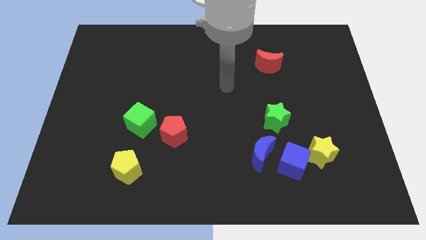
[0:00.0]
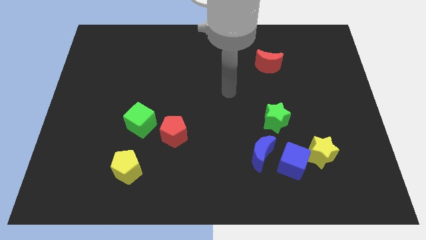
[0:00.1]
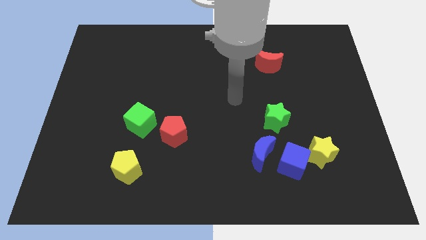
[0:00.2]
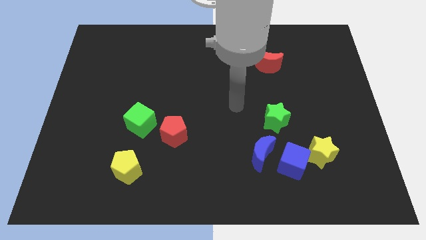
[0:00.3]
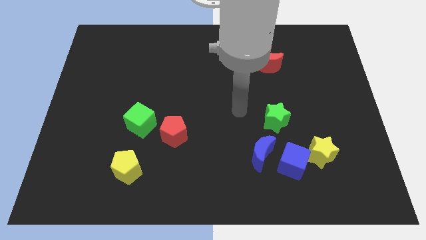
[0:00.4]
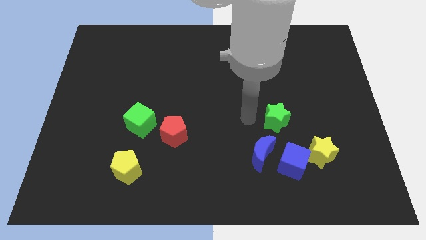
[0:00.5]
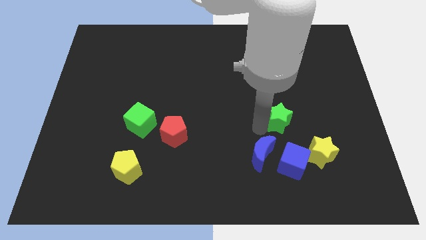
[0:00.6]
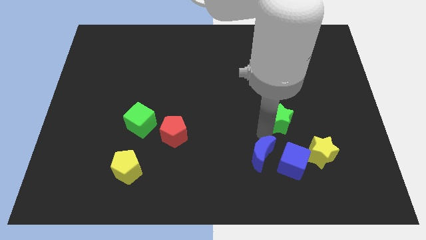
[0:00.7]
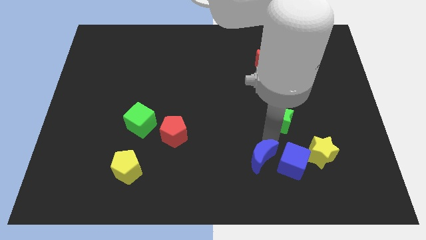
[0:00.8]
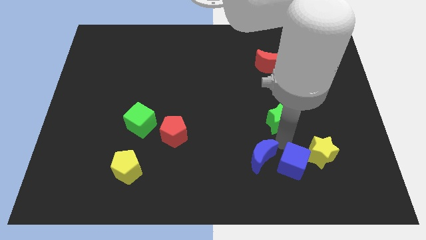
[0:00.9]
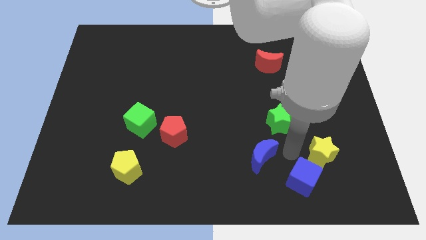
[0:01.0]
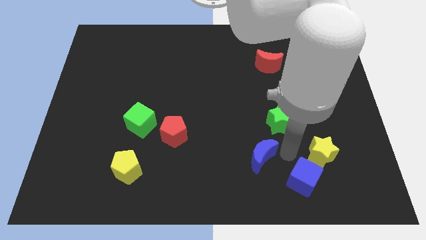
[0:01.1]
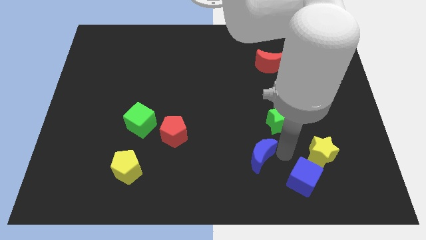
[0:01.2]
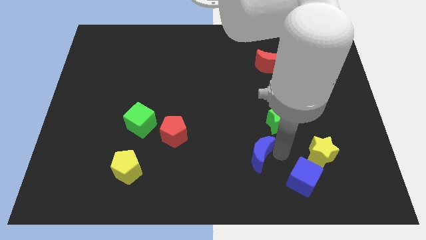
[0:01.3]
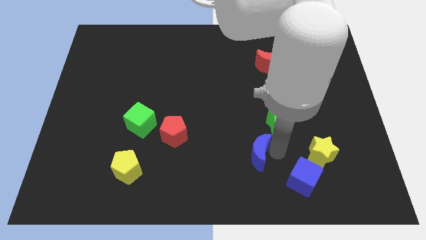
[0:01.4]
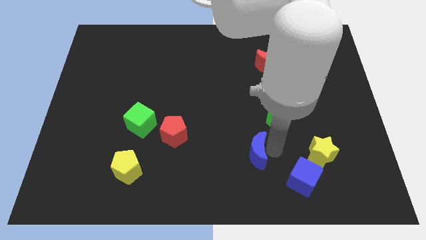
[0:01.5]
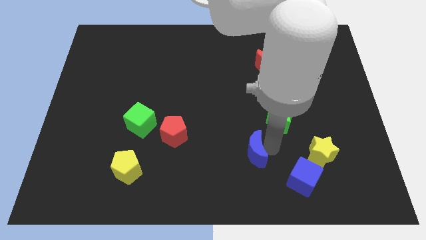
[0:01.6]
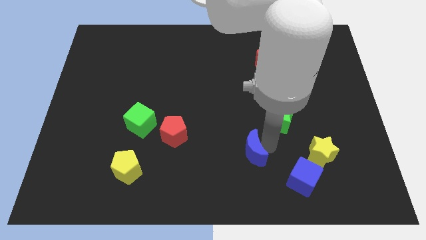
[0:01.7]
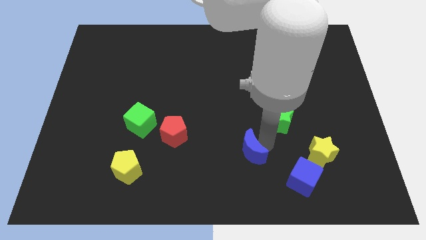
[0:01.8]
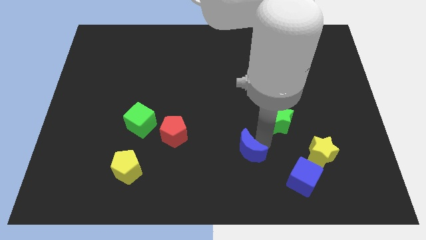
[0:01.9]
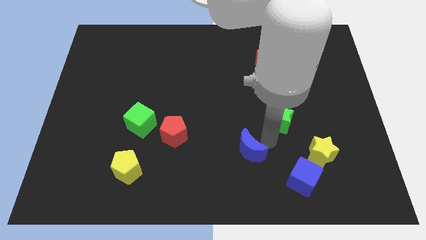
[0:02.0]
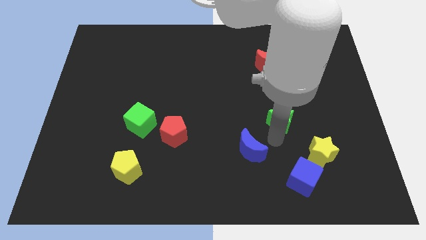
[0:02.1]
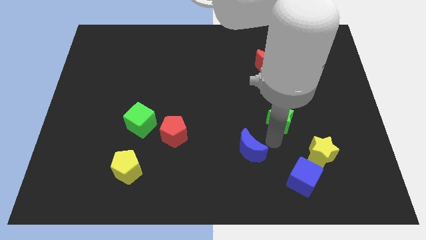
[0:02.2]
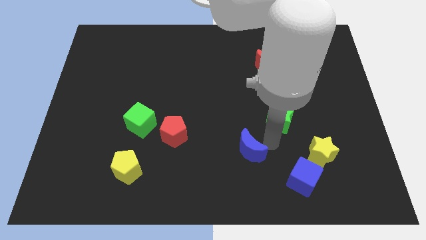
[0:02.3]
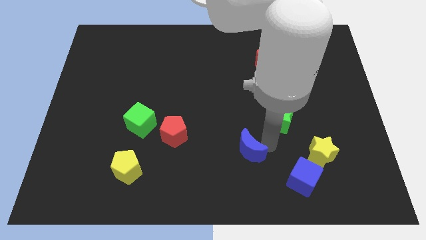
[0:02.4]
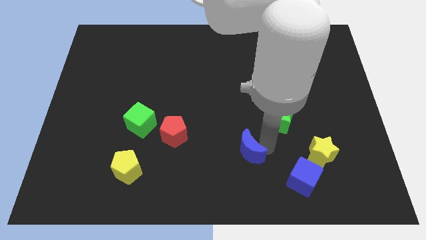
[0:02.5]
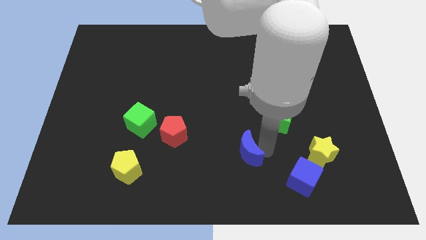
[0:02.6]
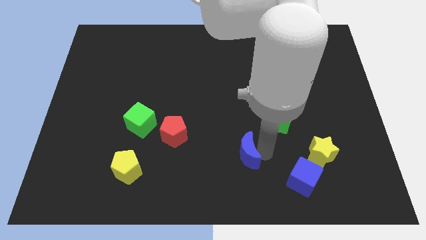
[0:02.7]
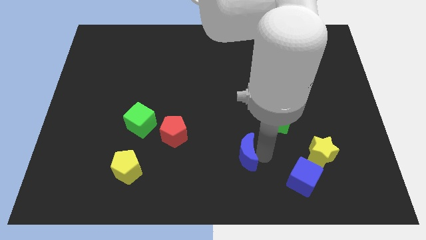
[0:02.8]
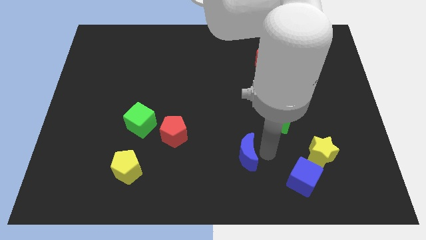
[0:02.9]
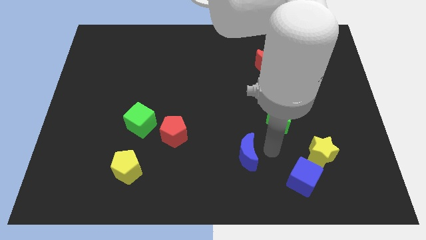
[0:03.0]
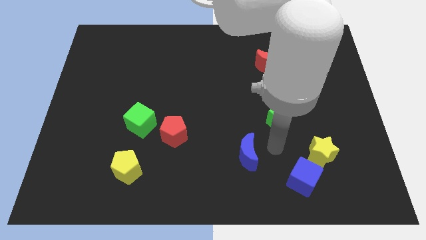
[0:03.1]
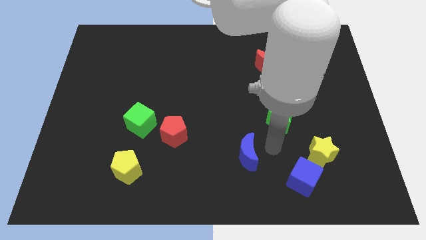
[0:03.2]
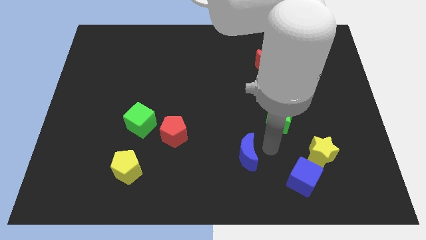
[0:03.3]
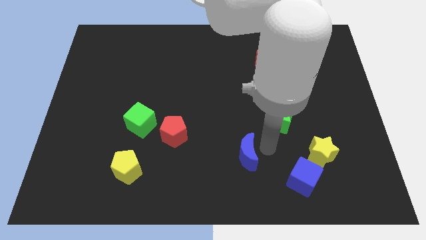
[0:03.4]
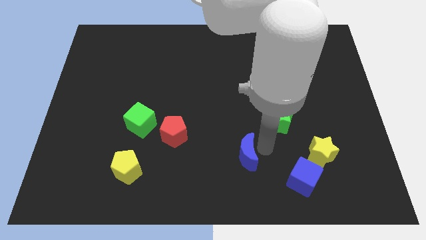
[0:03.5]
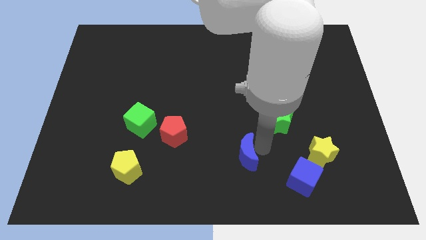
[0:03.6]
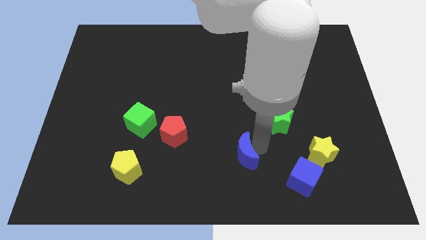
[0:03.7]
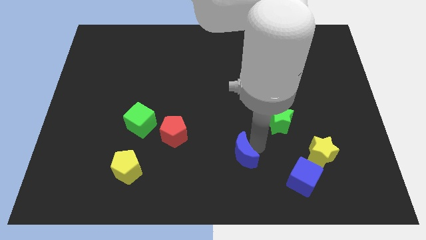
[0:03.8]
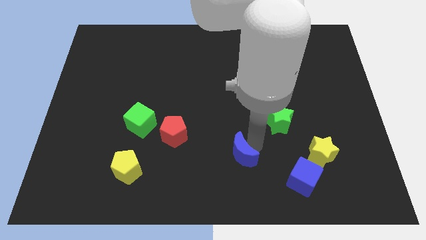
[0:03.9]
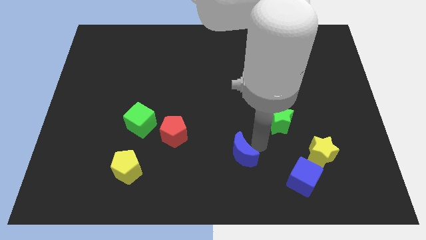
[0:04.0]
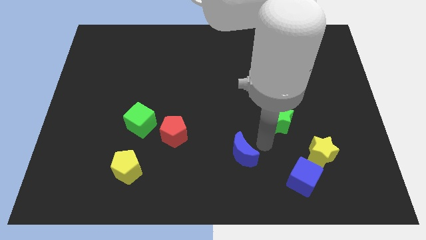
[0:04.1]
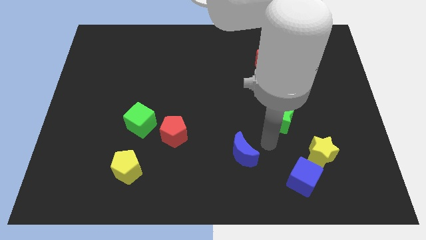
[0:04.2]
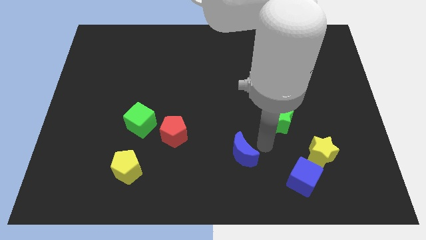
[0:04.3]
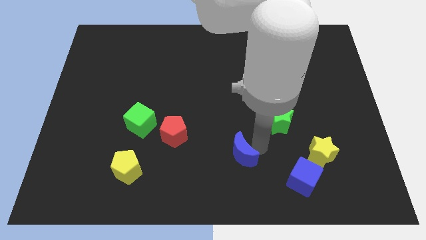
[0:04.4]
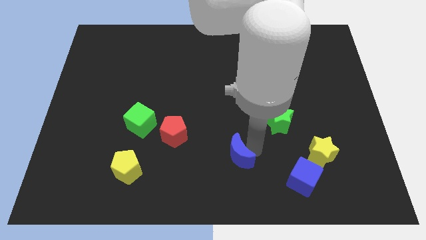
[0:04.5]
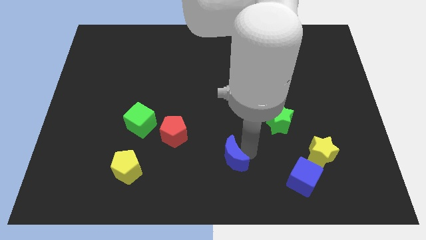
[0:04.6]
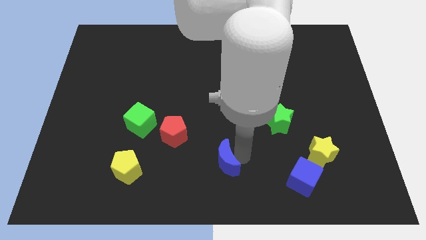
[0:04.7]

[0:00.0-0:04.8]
slide the blue moon left somewhat

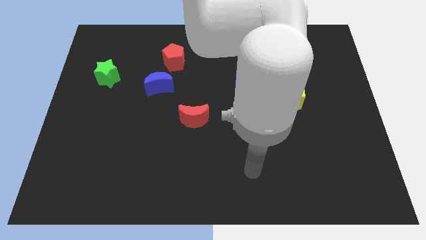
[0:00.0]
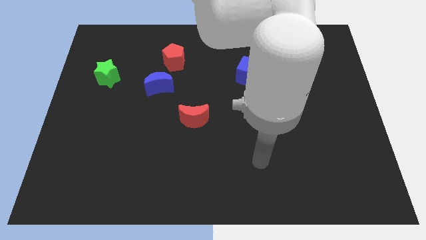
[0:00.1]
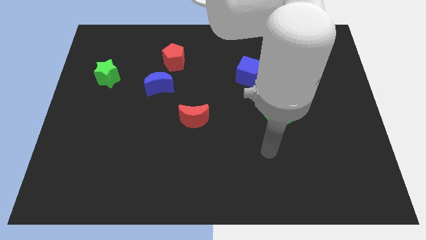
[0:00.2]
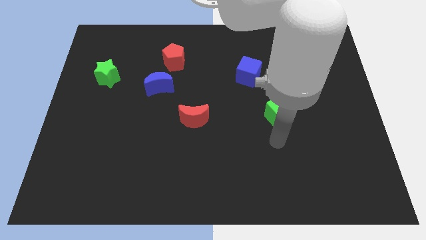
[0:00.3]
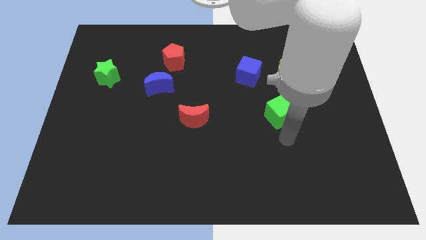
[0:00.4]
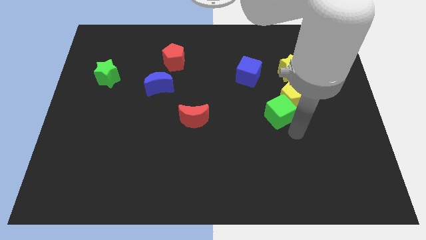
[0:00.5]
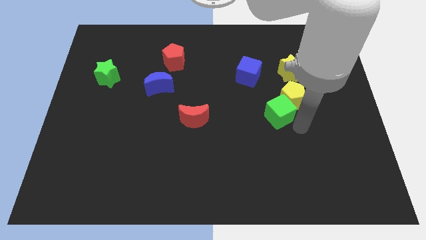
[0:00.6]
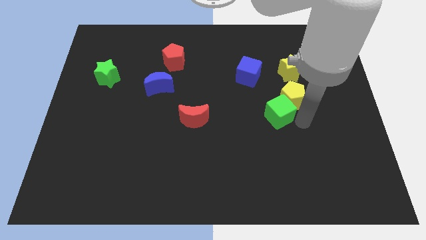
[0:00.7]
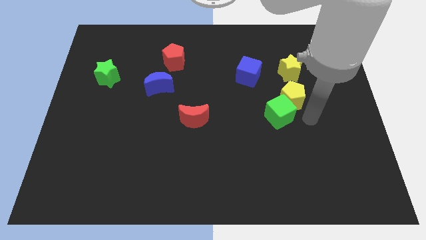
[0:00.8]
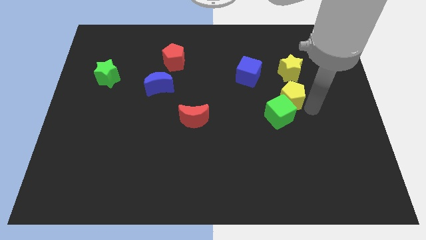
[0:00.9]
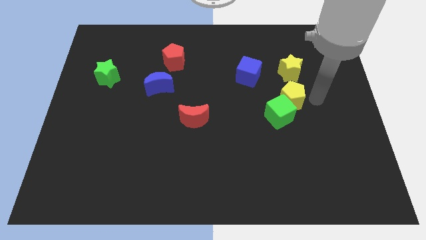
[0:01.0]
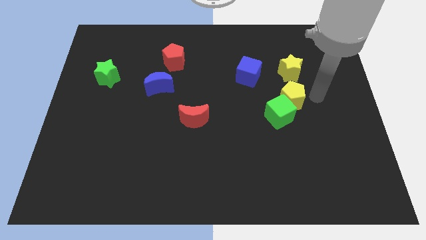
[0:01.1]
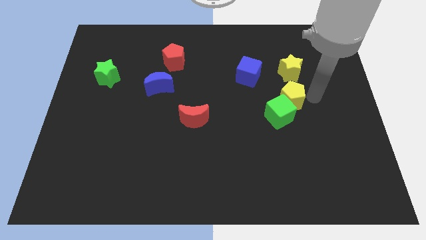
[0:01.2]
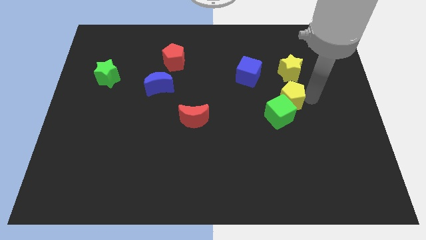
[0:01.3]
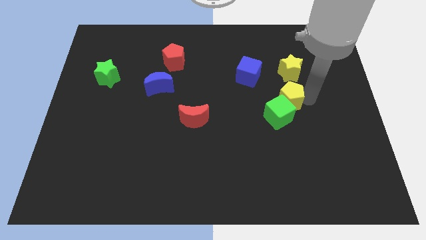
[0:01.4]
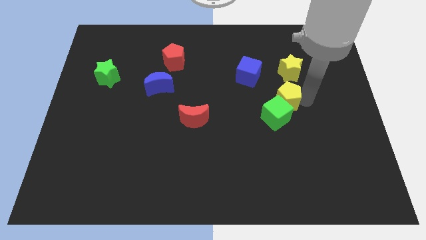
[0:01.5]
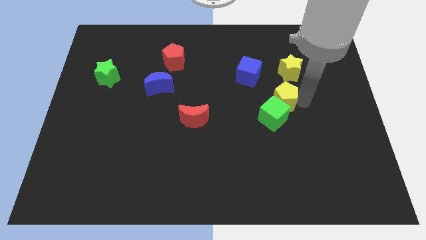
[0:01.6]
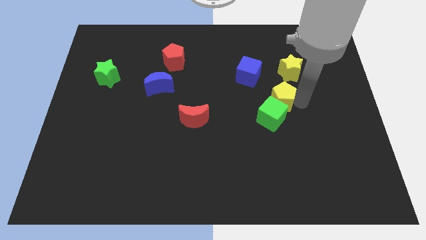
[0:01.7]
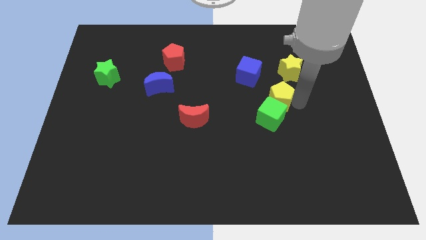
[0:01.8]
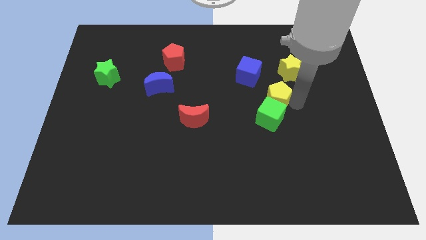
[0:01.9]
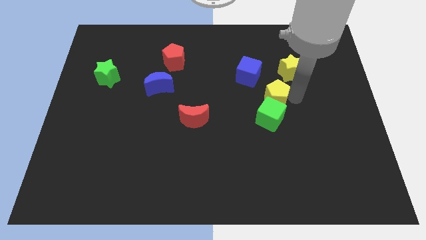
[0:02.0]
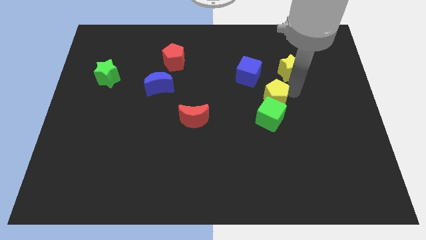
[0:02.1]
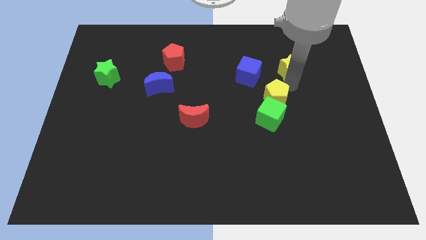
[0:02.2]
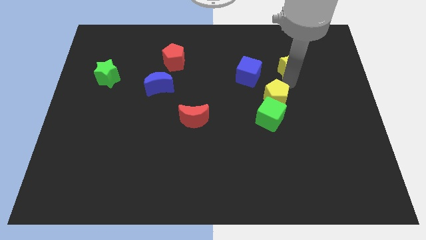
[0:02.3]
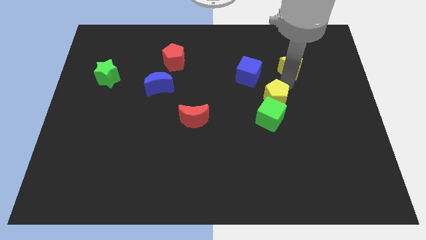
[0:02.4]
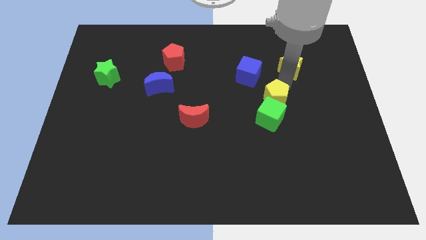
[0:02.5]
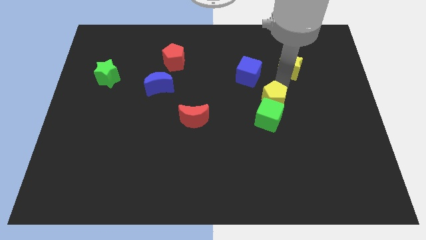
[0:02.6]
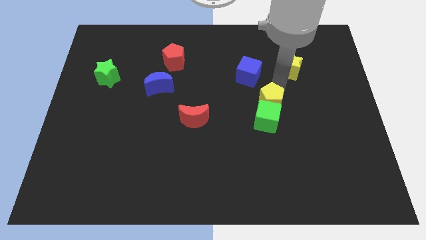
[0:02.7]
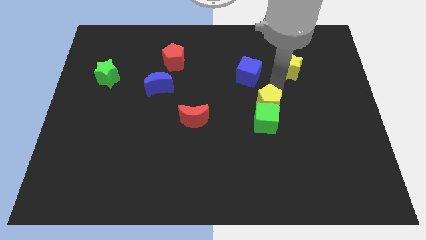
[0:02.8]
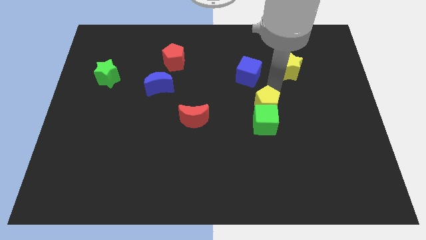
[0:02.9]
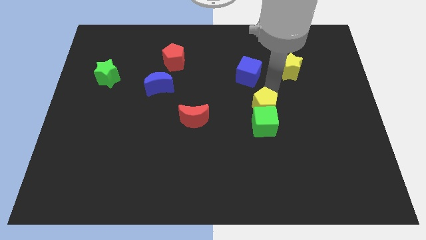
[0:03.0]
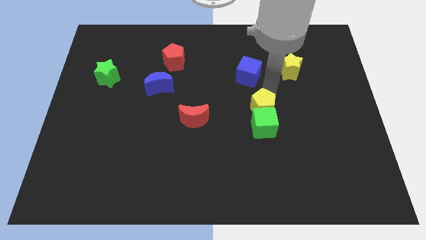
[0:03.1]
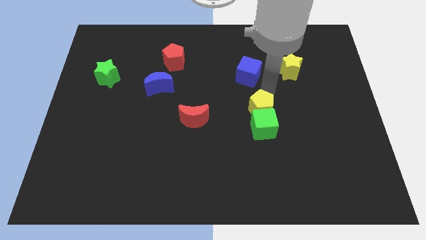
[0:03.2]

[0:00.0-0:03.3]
push the yellow pentagon downwards and left diagonally slightly
